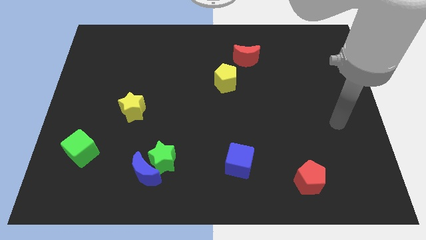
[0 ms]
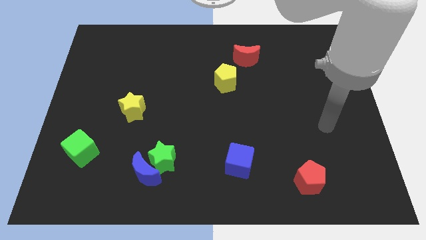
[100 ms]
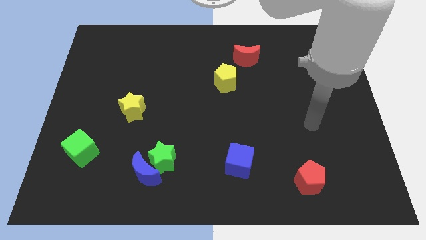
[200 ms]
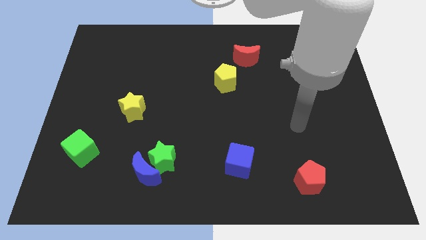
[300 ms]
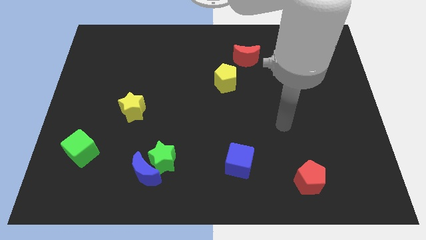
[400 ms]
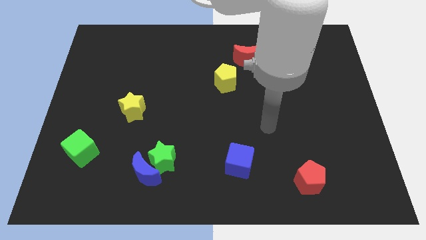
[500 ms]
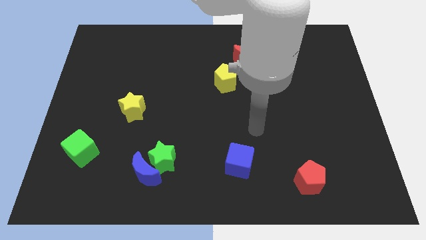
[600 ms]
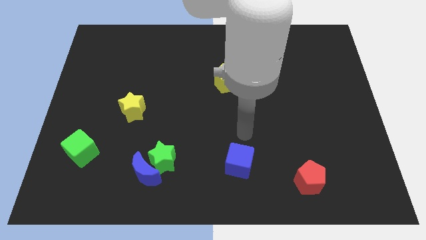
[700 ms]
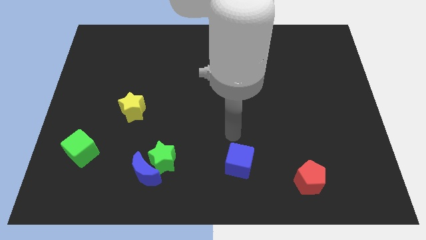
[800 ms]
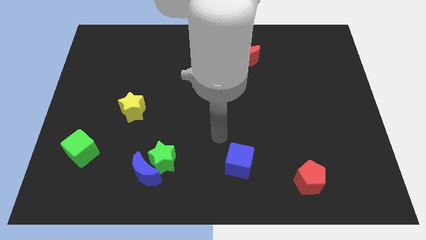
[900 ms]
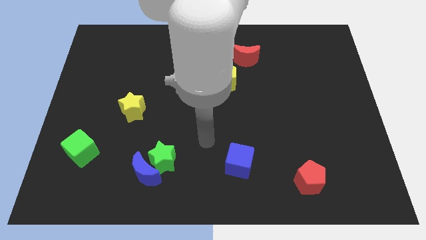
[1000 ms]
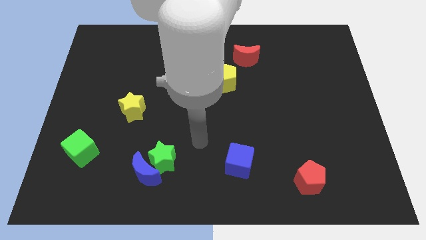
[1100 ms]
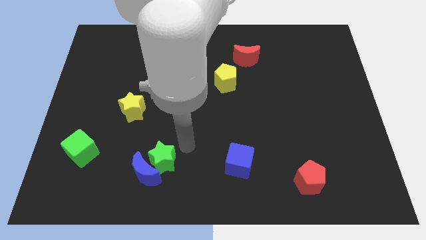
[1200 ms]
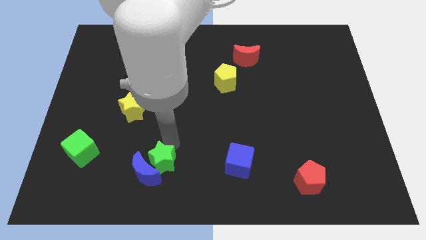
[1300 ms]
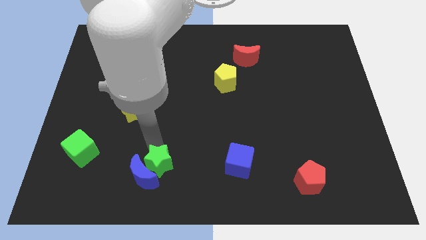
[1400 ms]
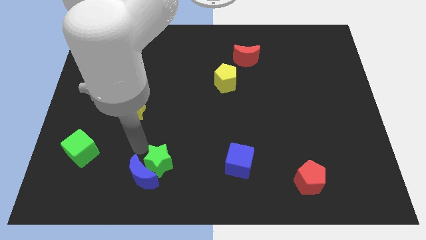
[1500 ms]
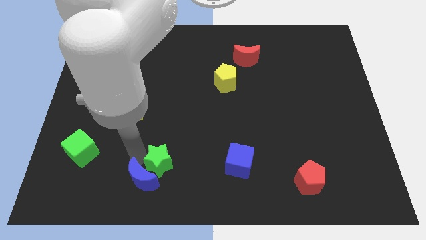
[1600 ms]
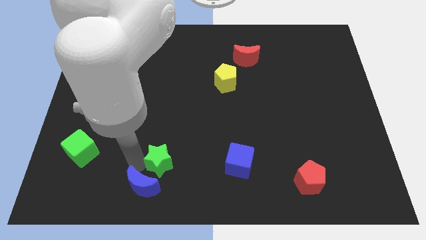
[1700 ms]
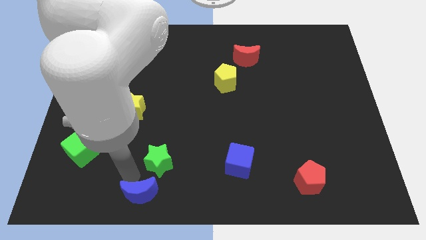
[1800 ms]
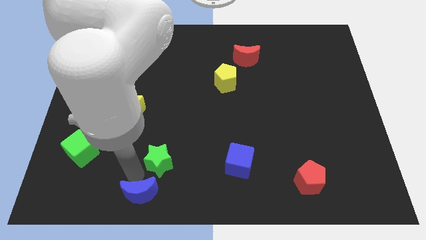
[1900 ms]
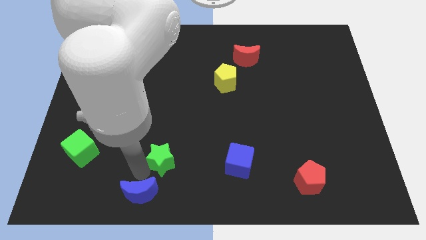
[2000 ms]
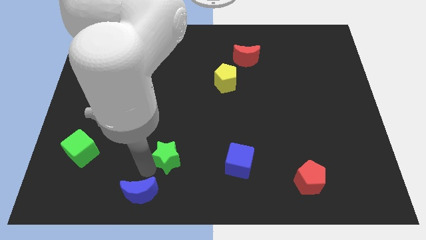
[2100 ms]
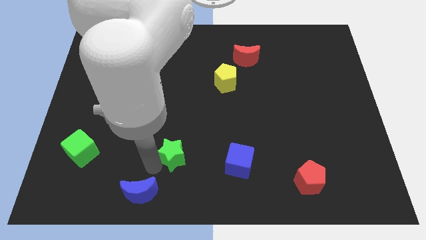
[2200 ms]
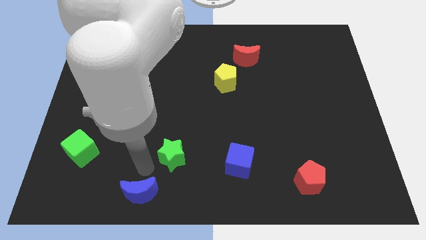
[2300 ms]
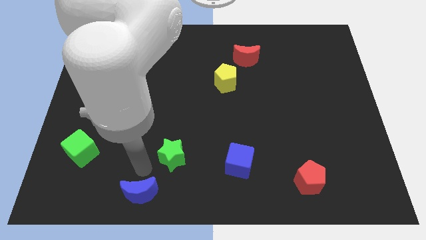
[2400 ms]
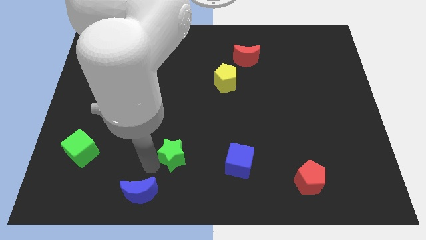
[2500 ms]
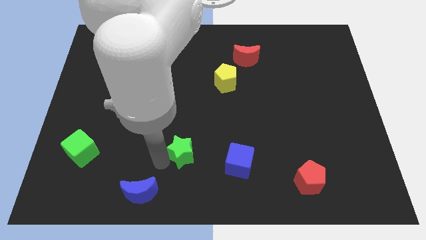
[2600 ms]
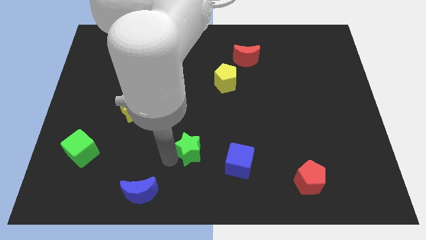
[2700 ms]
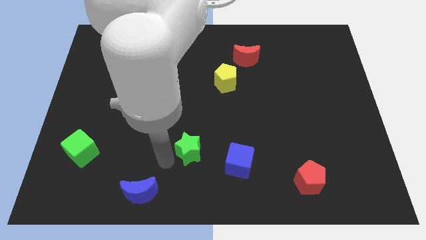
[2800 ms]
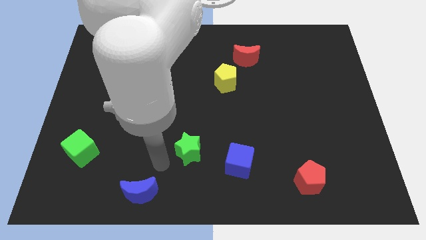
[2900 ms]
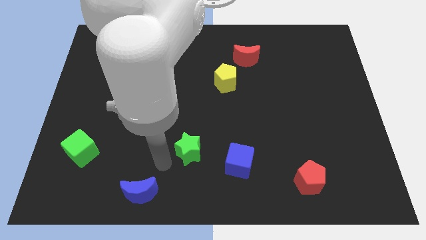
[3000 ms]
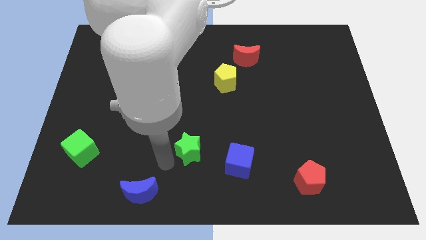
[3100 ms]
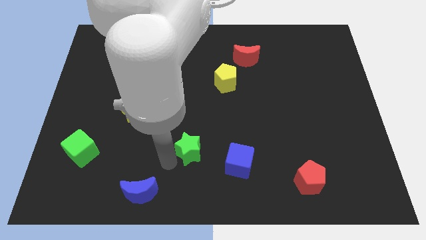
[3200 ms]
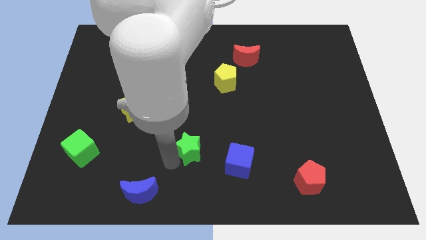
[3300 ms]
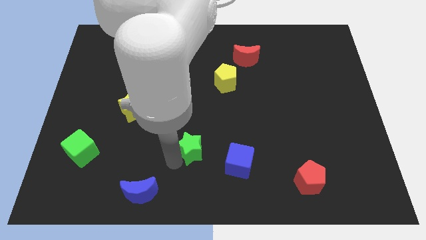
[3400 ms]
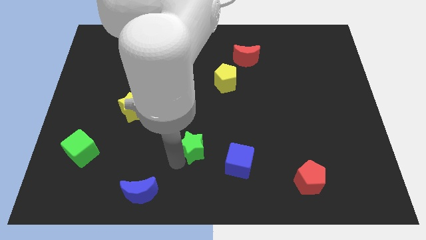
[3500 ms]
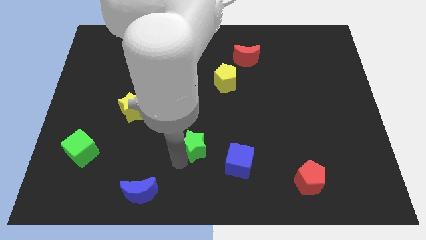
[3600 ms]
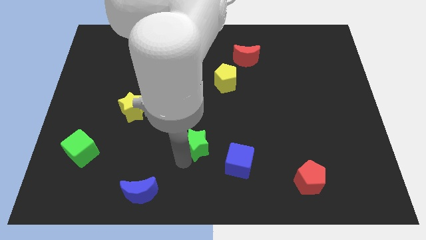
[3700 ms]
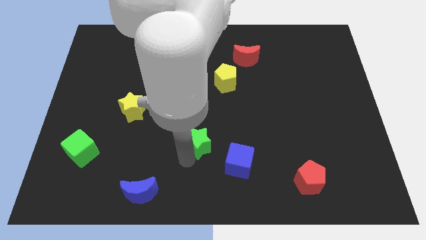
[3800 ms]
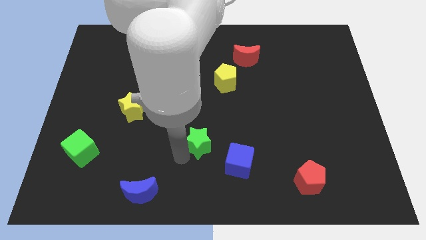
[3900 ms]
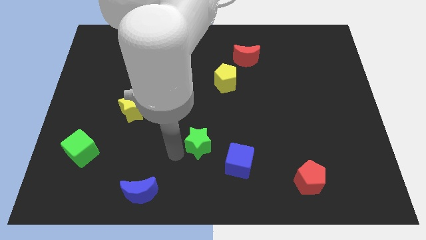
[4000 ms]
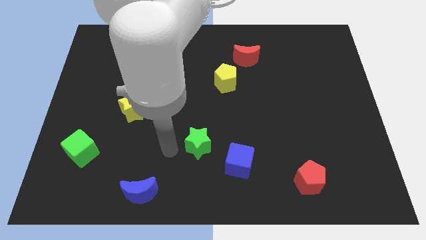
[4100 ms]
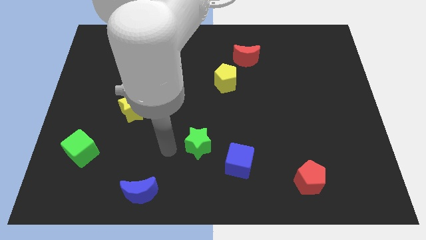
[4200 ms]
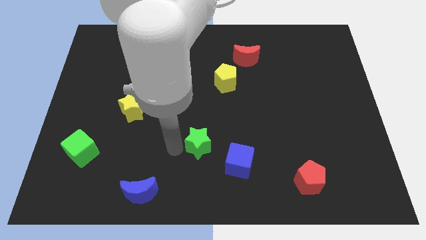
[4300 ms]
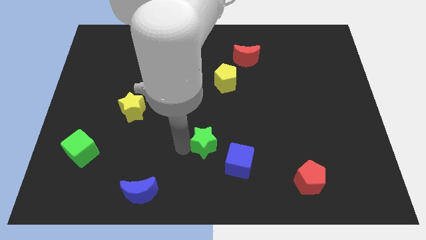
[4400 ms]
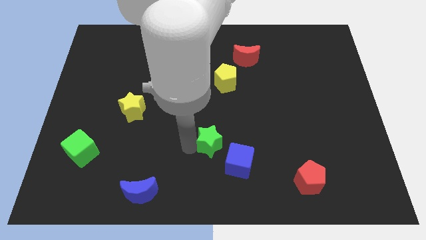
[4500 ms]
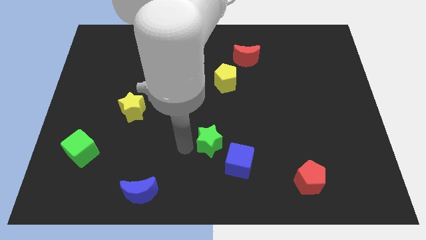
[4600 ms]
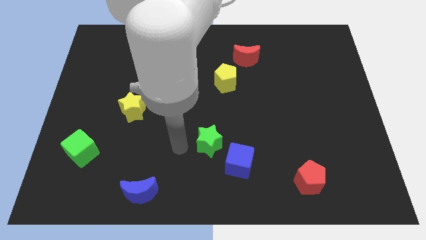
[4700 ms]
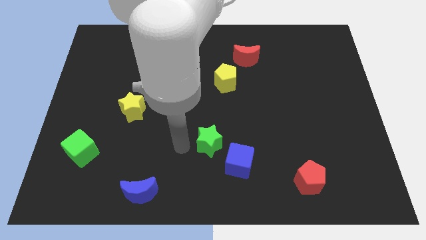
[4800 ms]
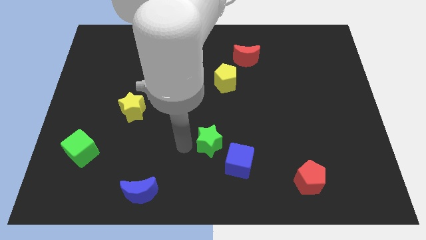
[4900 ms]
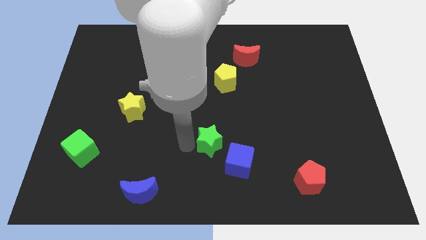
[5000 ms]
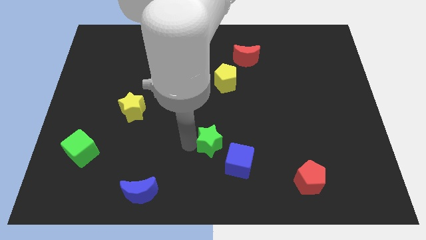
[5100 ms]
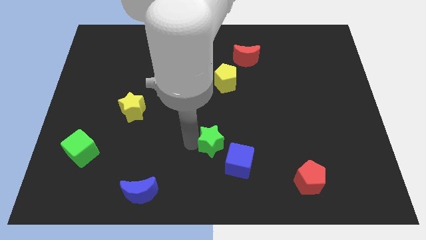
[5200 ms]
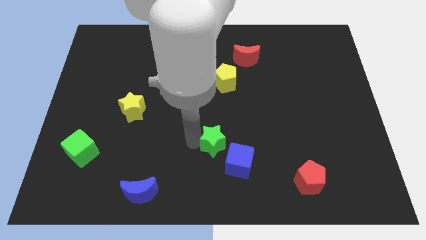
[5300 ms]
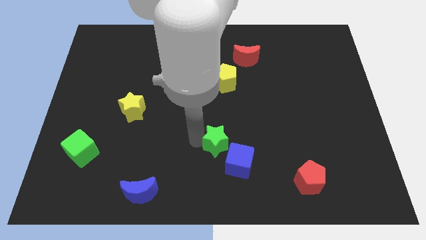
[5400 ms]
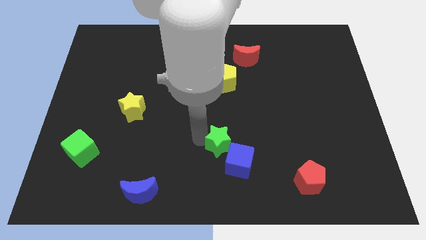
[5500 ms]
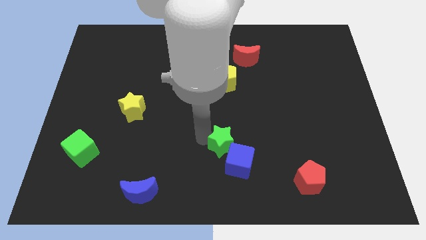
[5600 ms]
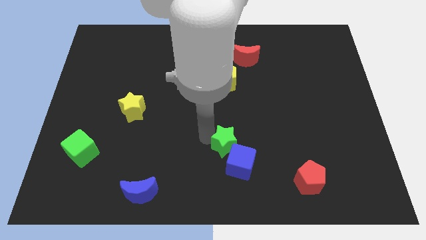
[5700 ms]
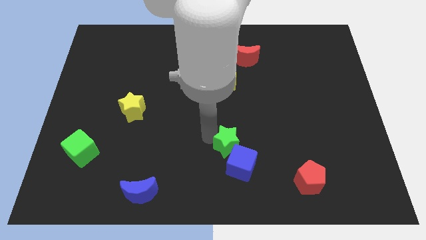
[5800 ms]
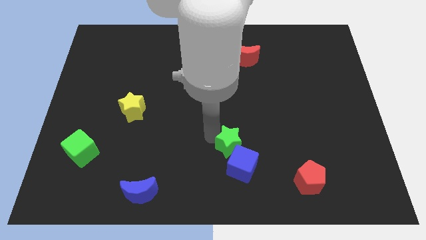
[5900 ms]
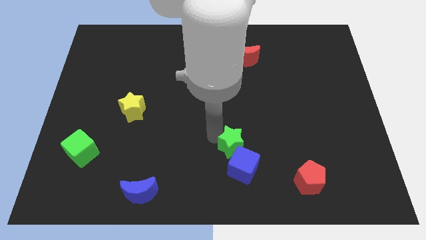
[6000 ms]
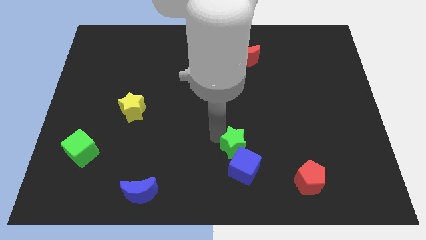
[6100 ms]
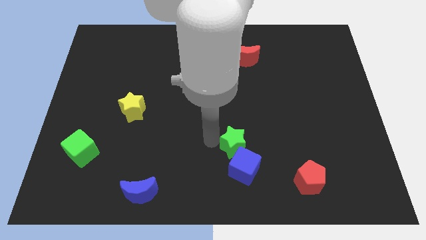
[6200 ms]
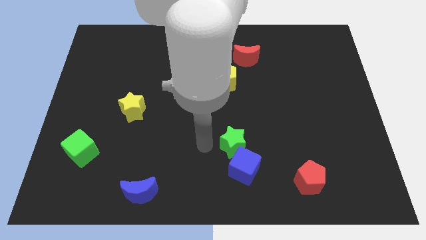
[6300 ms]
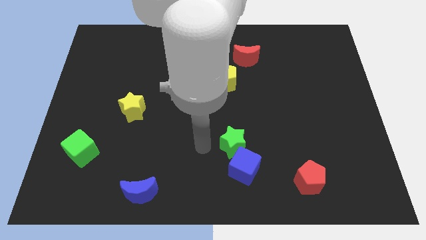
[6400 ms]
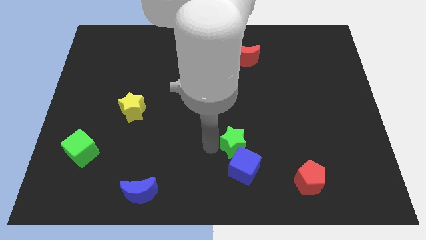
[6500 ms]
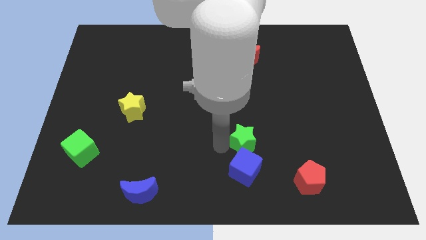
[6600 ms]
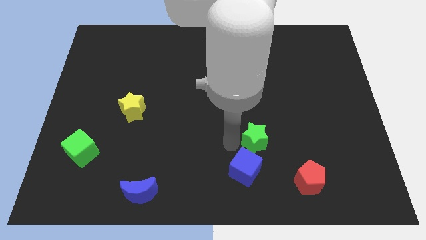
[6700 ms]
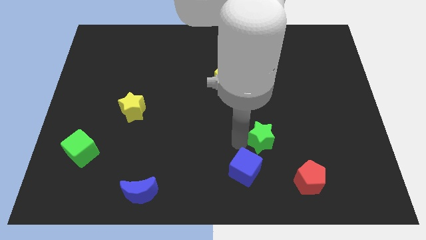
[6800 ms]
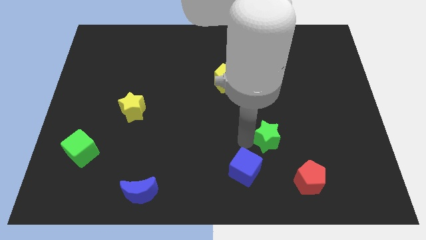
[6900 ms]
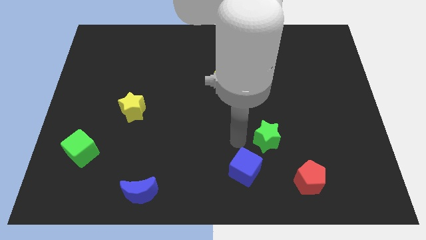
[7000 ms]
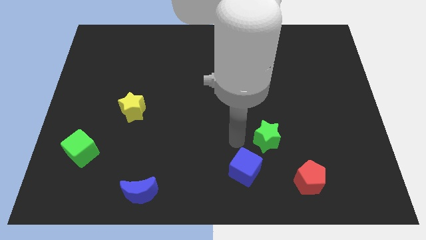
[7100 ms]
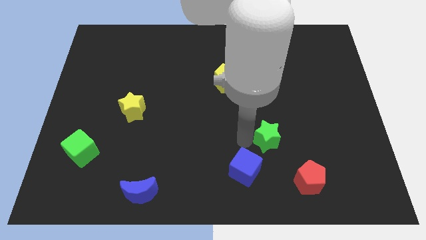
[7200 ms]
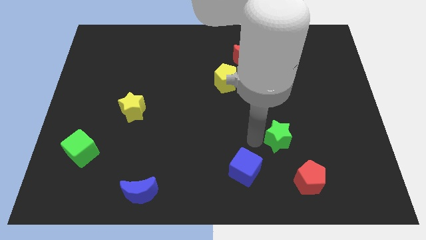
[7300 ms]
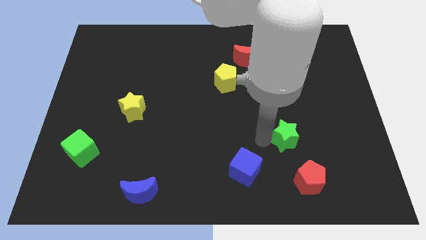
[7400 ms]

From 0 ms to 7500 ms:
push the green star above the red pentagon
